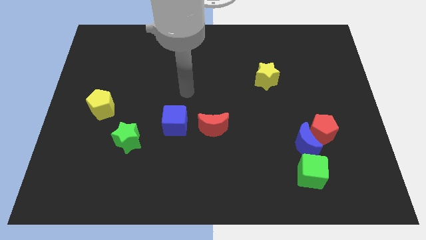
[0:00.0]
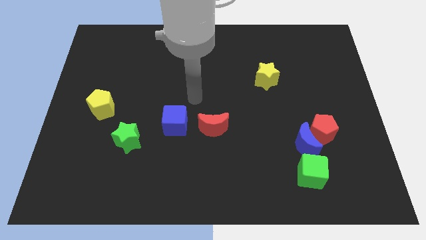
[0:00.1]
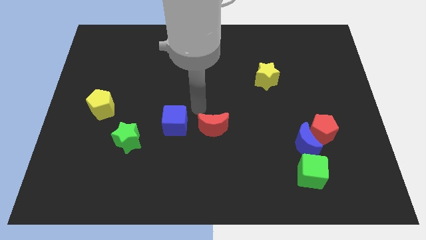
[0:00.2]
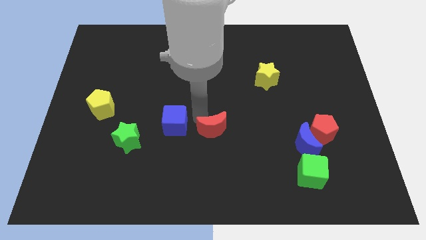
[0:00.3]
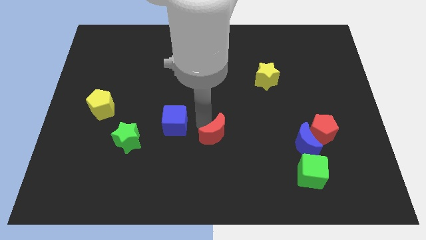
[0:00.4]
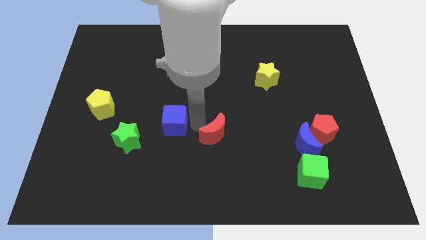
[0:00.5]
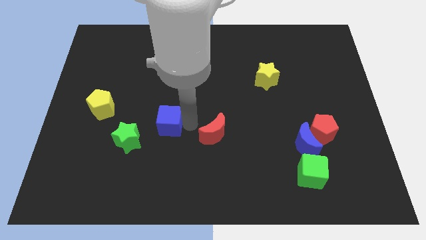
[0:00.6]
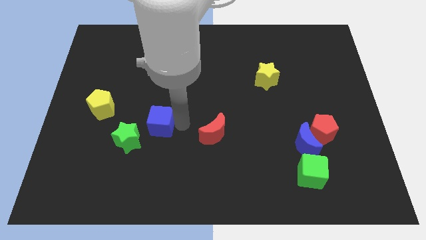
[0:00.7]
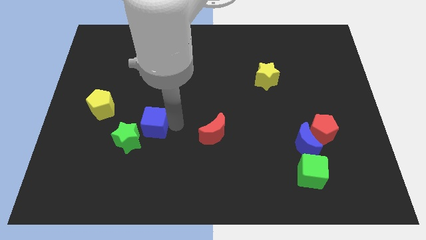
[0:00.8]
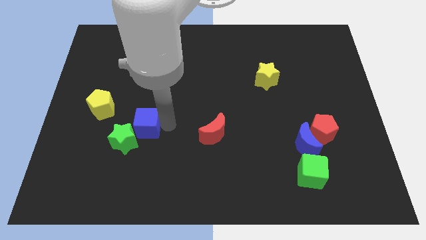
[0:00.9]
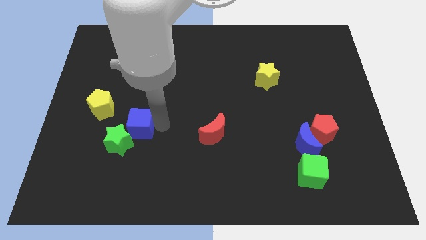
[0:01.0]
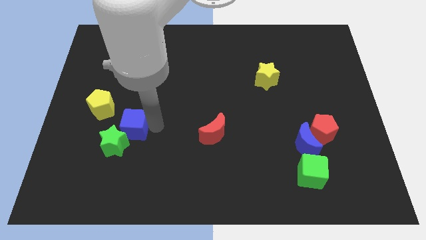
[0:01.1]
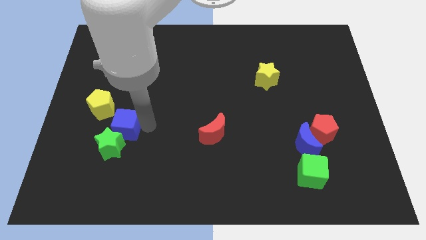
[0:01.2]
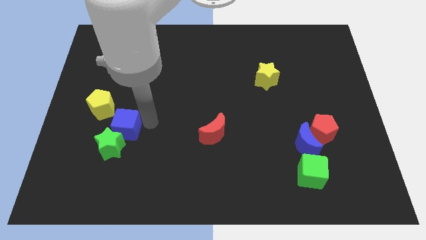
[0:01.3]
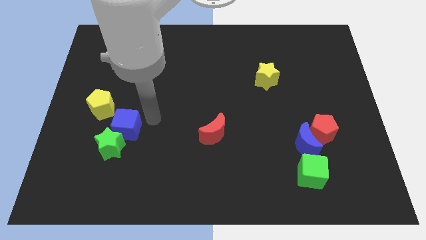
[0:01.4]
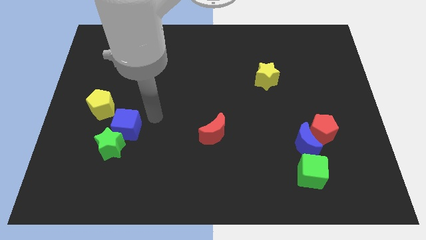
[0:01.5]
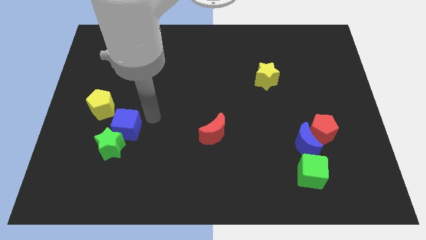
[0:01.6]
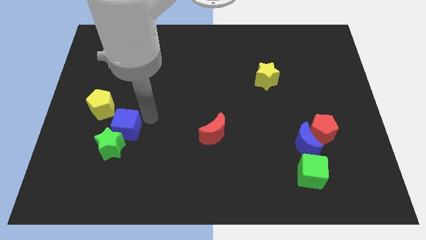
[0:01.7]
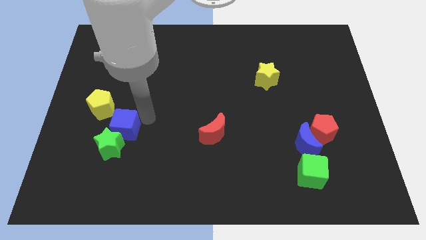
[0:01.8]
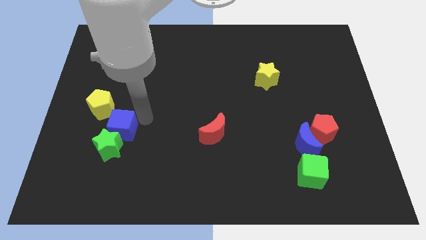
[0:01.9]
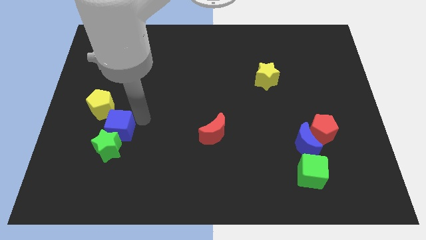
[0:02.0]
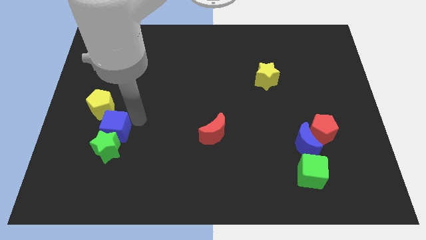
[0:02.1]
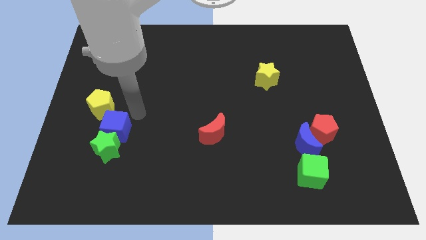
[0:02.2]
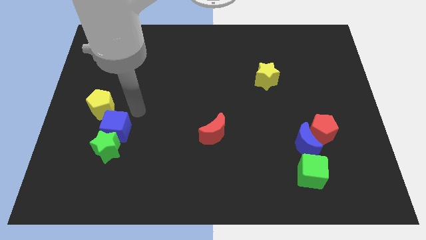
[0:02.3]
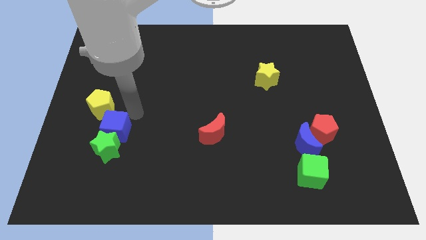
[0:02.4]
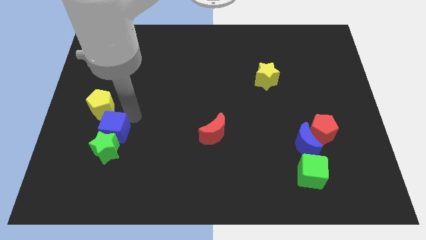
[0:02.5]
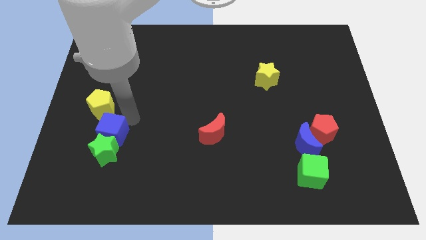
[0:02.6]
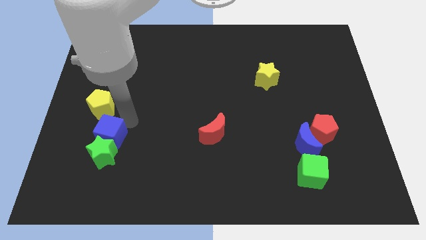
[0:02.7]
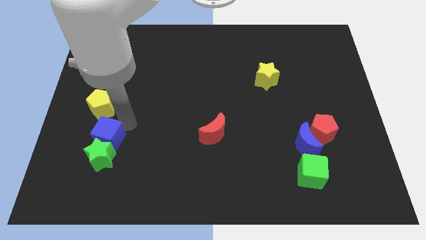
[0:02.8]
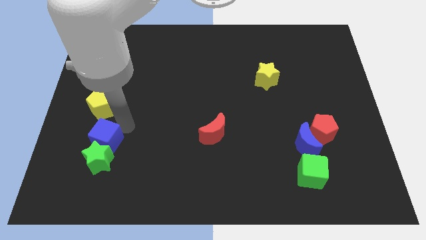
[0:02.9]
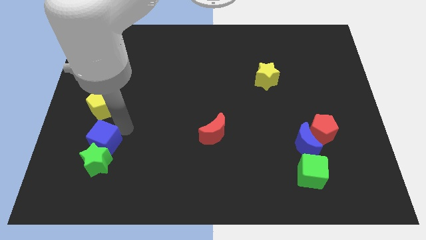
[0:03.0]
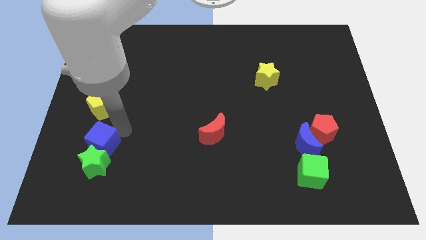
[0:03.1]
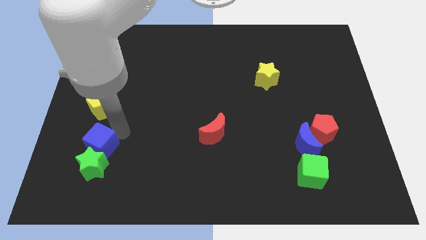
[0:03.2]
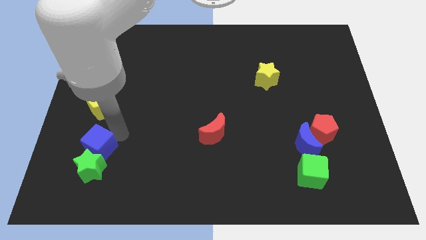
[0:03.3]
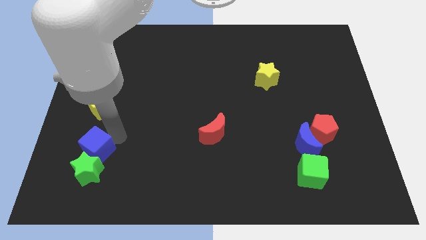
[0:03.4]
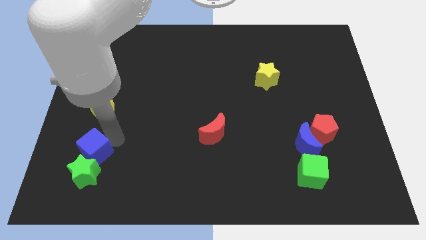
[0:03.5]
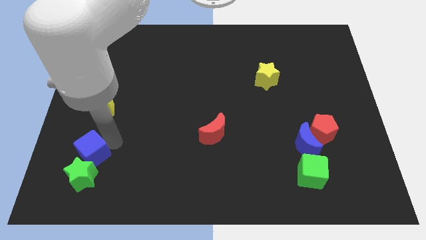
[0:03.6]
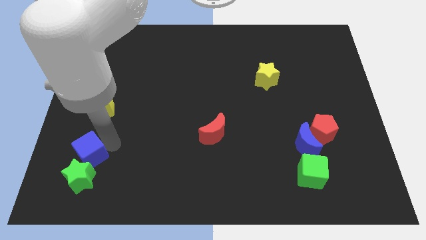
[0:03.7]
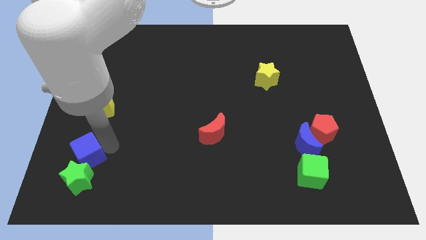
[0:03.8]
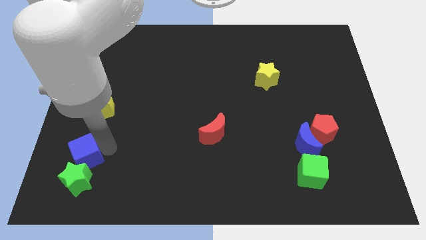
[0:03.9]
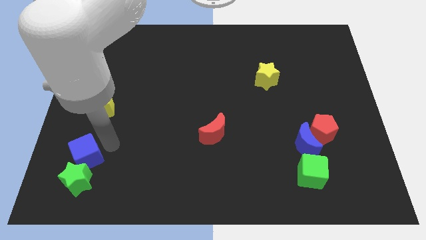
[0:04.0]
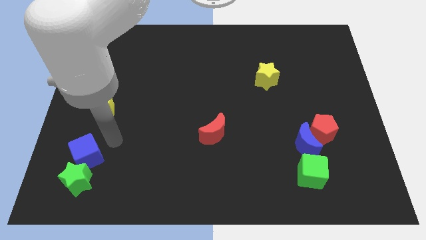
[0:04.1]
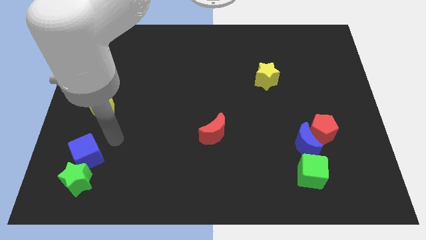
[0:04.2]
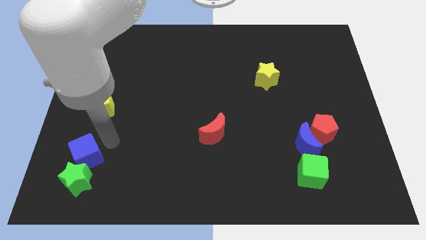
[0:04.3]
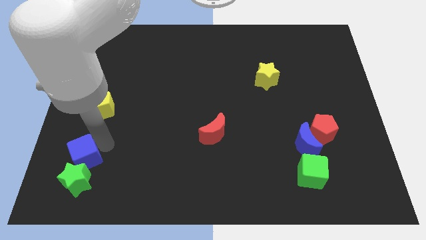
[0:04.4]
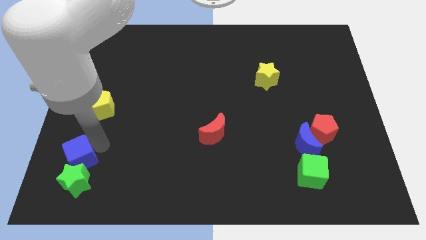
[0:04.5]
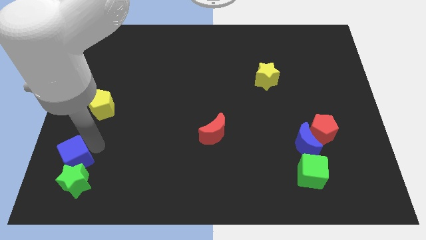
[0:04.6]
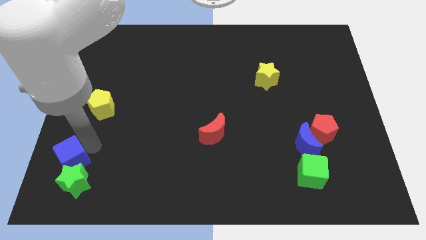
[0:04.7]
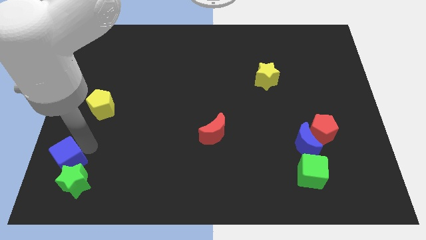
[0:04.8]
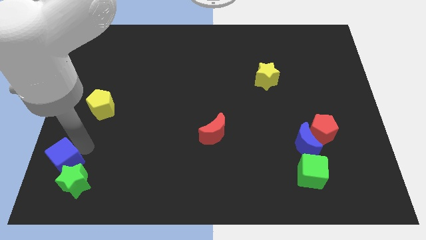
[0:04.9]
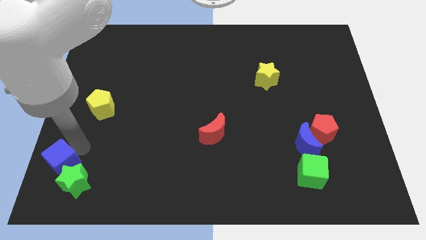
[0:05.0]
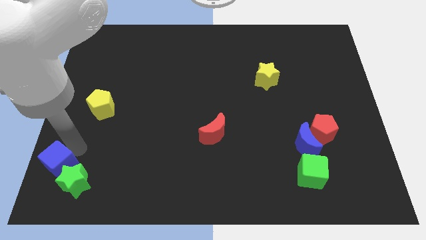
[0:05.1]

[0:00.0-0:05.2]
put the blue cube to the bottom left corner

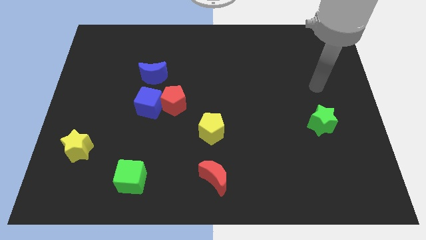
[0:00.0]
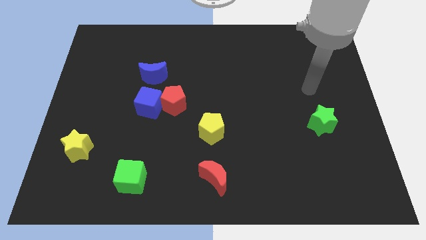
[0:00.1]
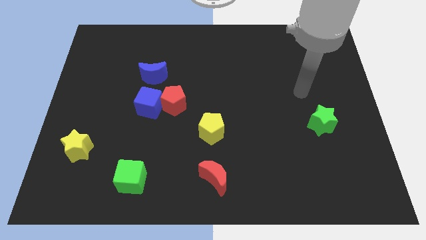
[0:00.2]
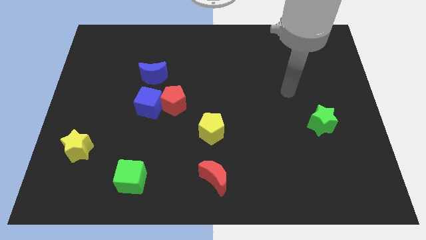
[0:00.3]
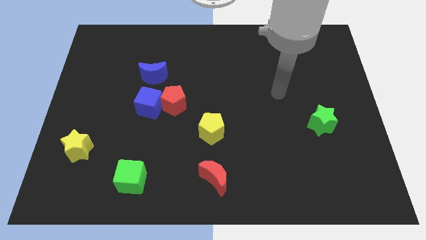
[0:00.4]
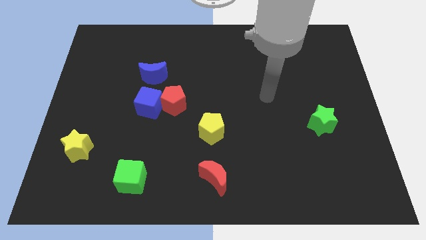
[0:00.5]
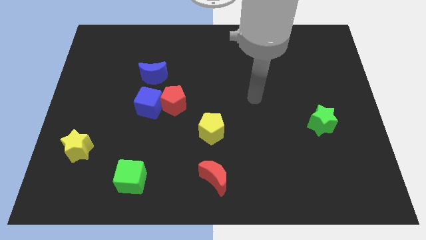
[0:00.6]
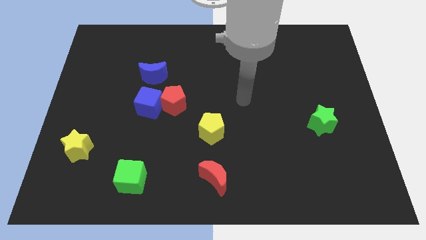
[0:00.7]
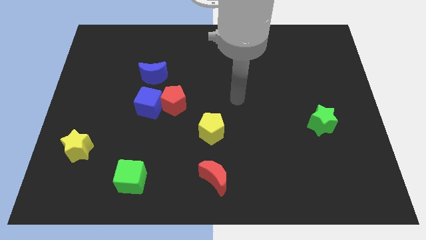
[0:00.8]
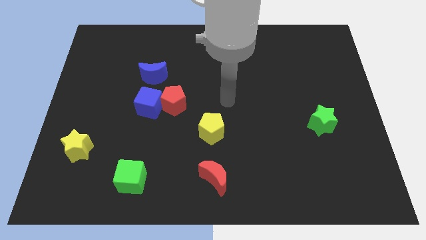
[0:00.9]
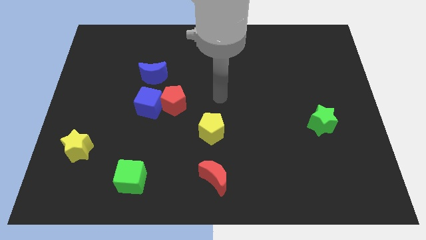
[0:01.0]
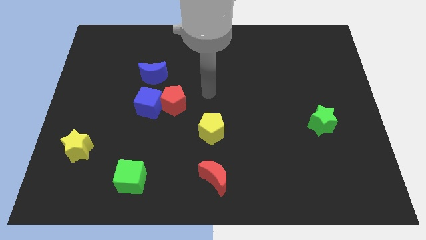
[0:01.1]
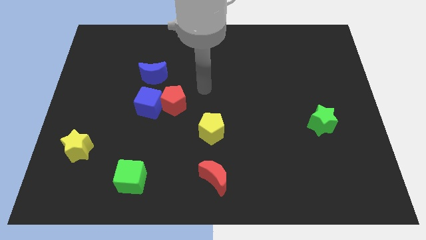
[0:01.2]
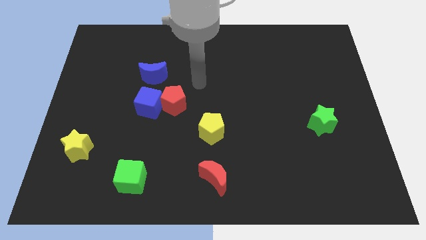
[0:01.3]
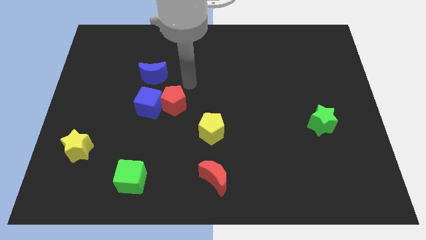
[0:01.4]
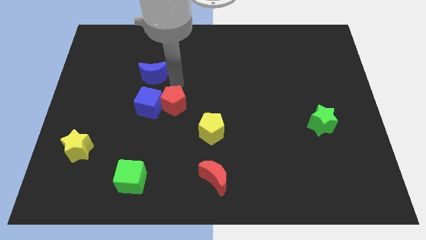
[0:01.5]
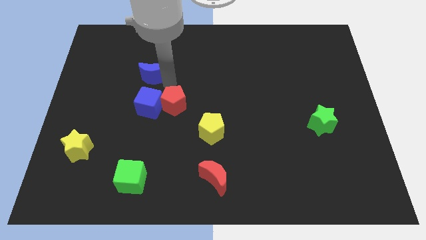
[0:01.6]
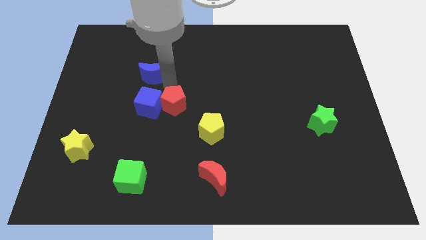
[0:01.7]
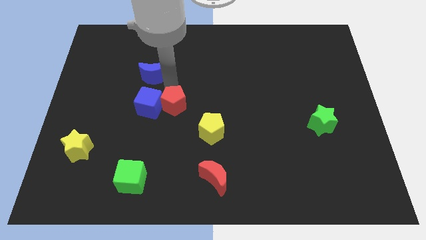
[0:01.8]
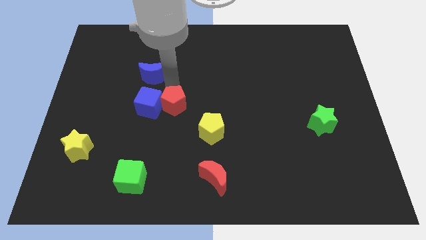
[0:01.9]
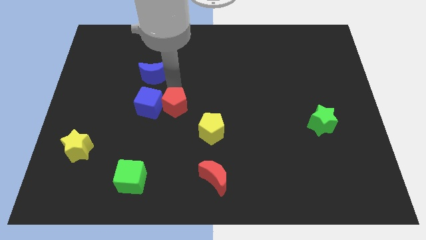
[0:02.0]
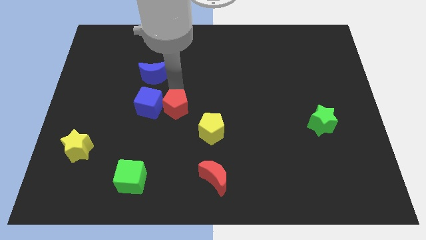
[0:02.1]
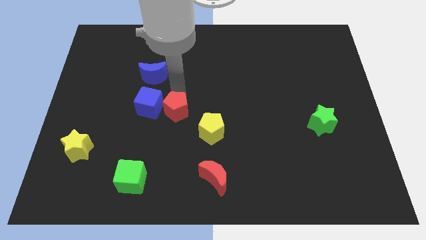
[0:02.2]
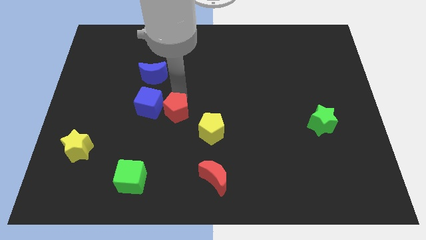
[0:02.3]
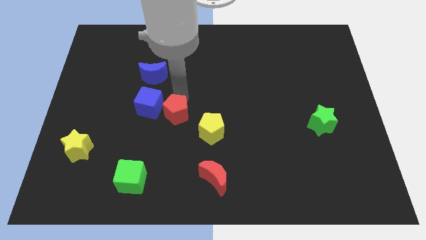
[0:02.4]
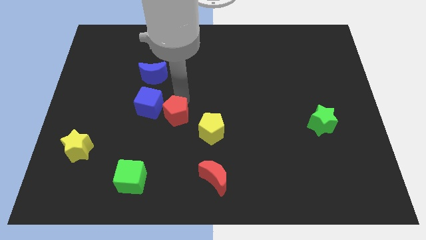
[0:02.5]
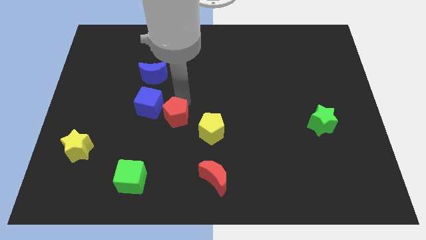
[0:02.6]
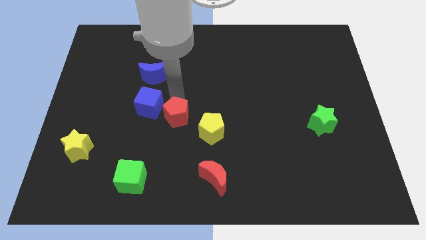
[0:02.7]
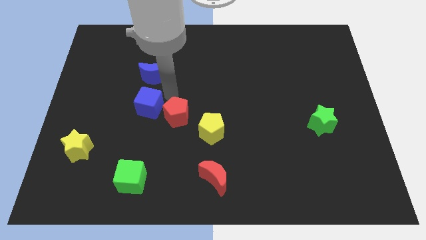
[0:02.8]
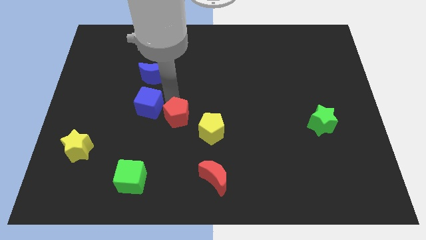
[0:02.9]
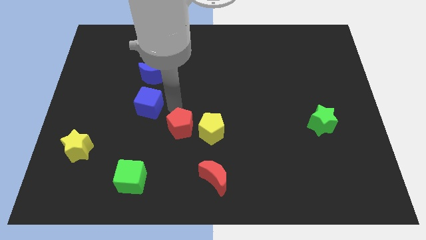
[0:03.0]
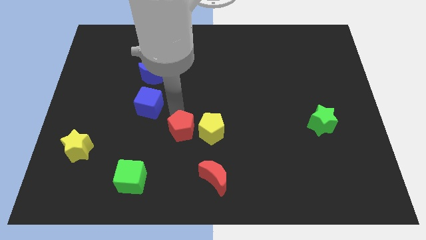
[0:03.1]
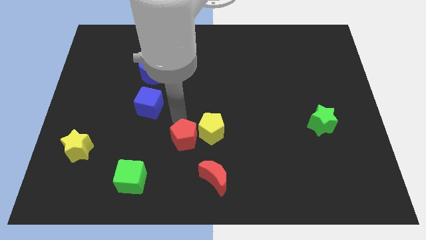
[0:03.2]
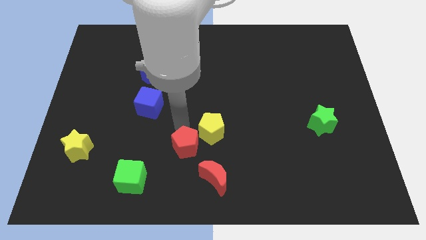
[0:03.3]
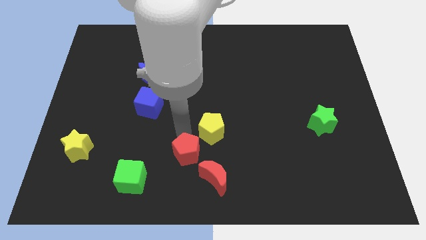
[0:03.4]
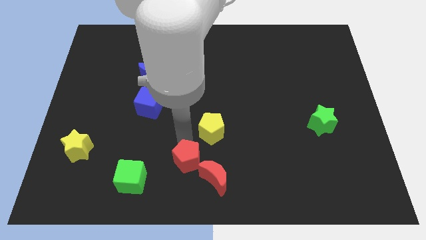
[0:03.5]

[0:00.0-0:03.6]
move the red pentagon to the bottom side
